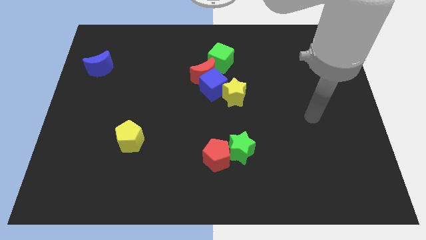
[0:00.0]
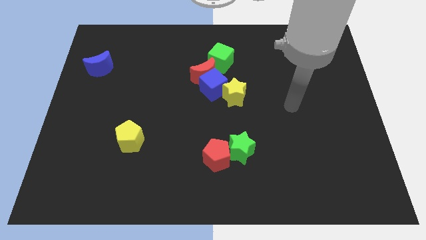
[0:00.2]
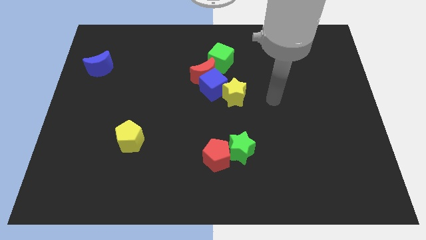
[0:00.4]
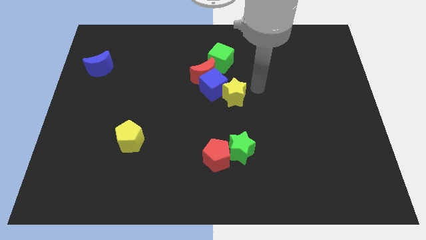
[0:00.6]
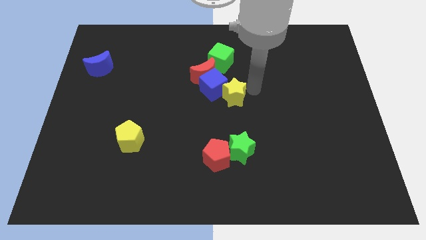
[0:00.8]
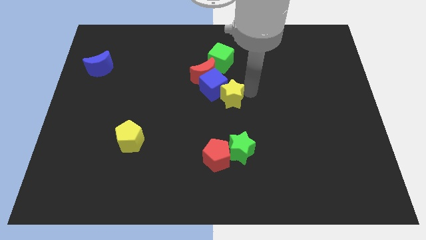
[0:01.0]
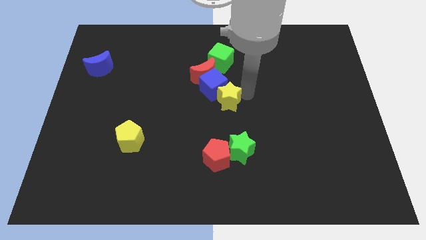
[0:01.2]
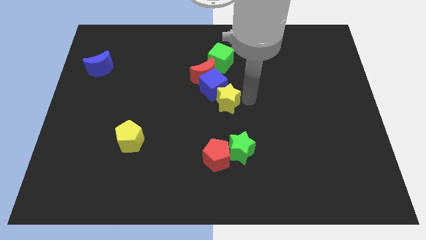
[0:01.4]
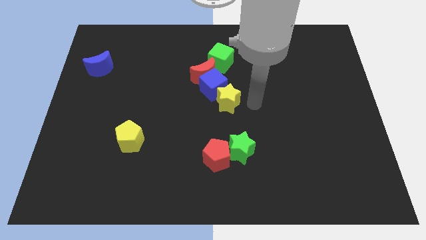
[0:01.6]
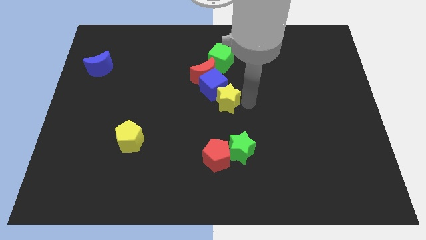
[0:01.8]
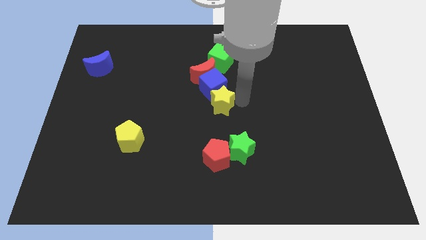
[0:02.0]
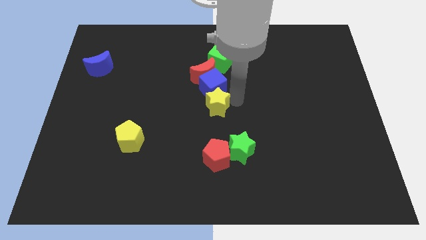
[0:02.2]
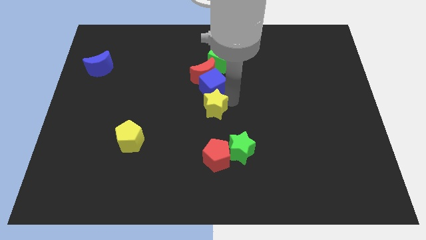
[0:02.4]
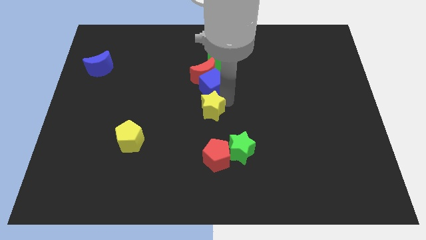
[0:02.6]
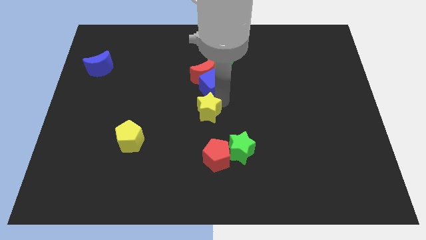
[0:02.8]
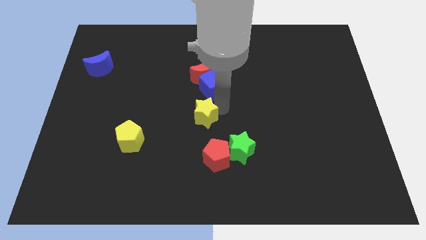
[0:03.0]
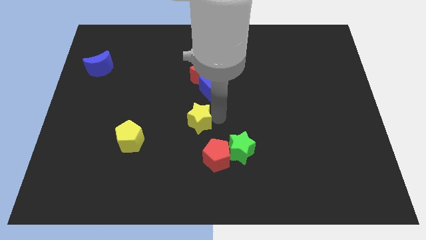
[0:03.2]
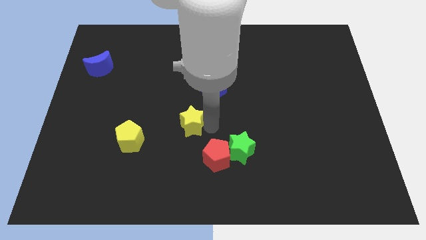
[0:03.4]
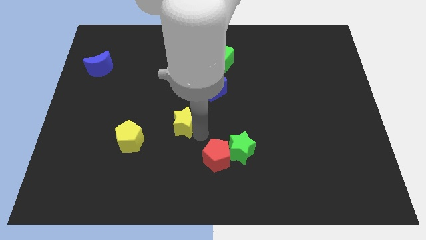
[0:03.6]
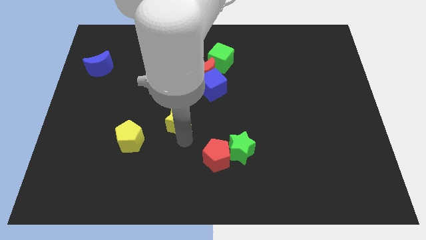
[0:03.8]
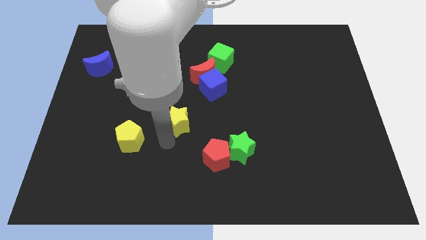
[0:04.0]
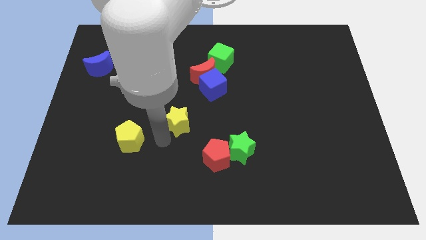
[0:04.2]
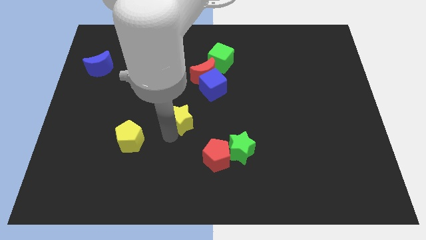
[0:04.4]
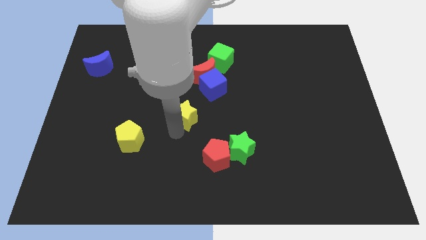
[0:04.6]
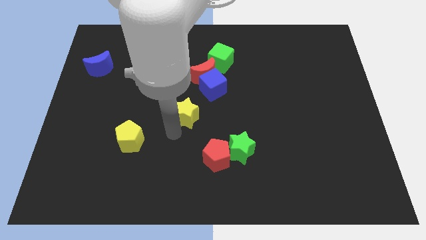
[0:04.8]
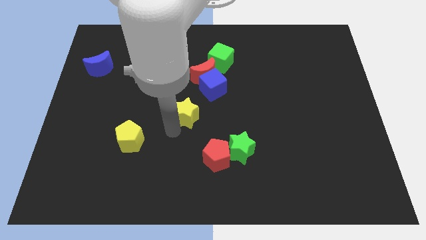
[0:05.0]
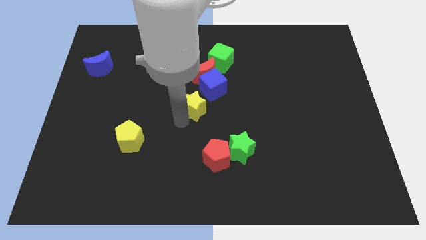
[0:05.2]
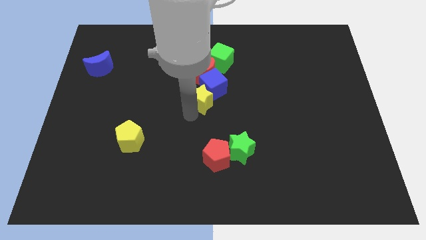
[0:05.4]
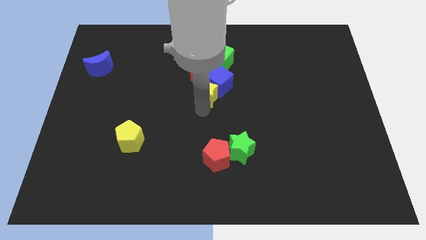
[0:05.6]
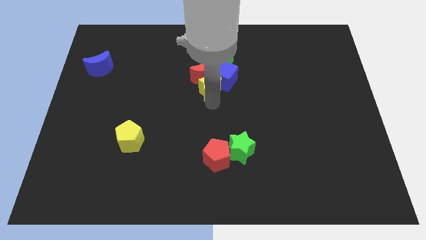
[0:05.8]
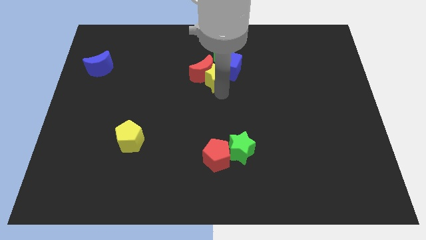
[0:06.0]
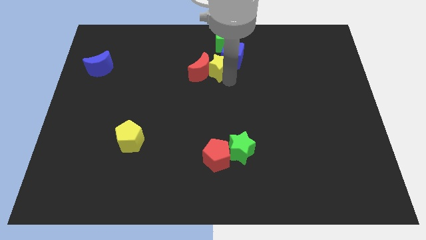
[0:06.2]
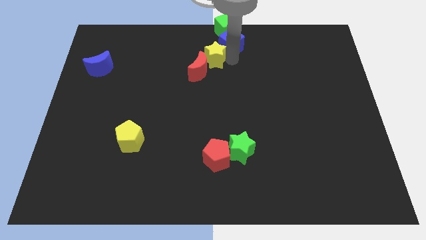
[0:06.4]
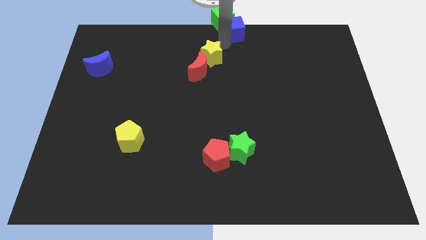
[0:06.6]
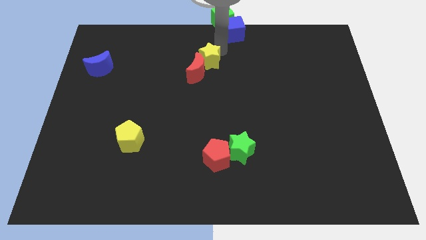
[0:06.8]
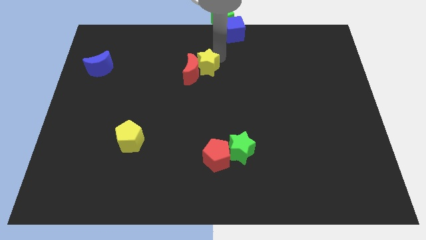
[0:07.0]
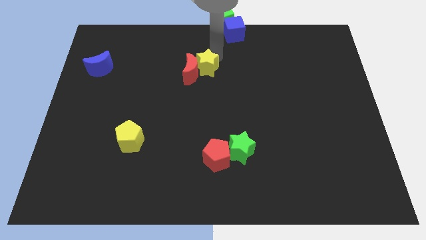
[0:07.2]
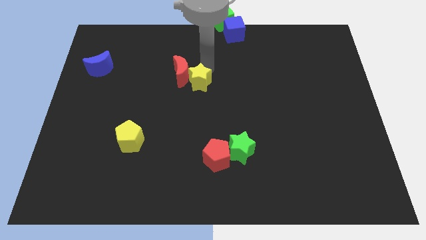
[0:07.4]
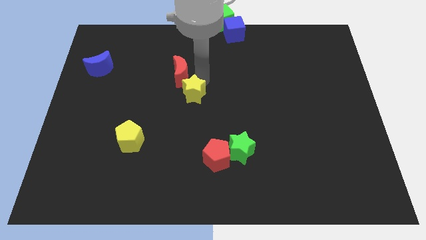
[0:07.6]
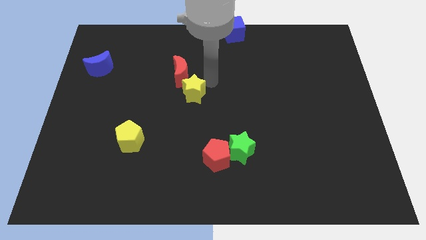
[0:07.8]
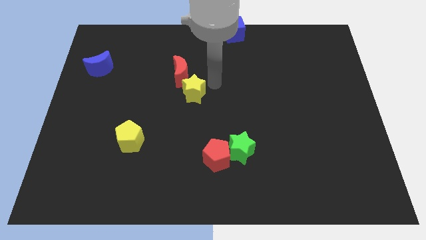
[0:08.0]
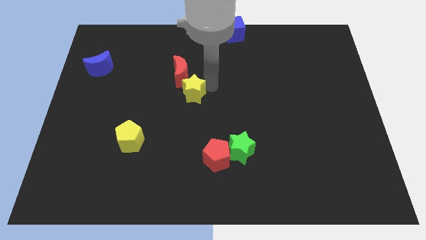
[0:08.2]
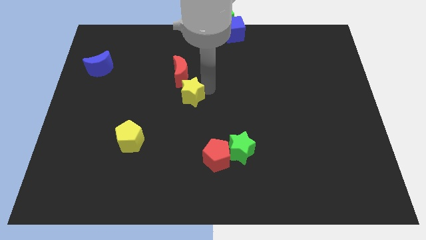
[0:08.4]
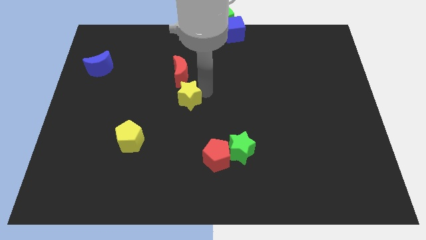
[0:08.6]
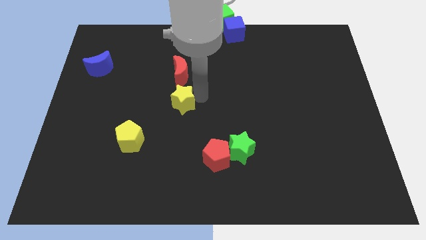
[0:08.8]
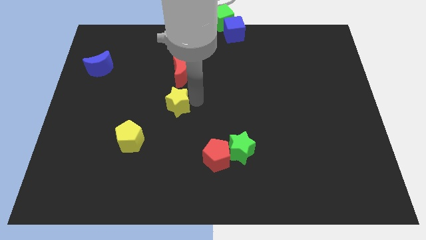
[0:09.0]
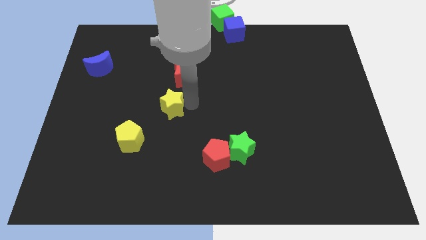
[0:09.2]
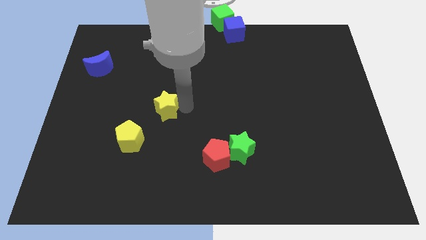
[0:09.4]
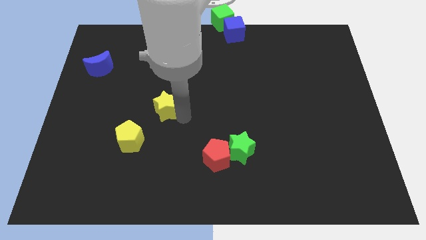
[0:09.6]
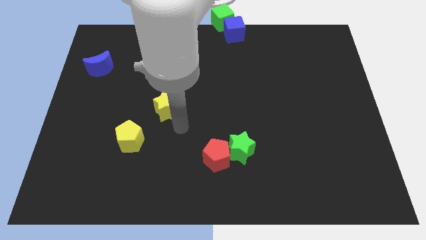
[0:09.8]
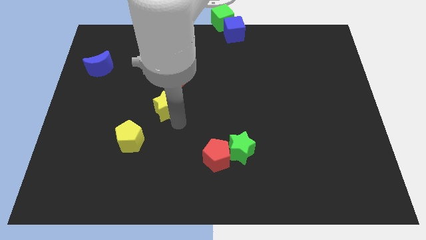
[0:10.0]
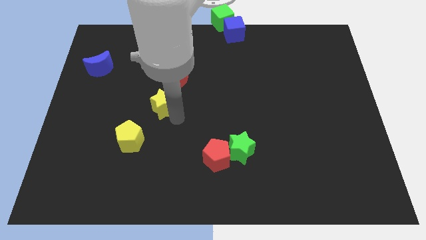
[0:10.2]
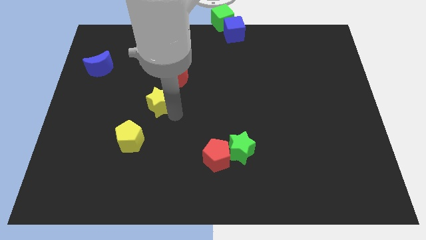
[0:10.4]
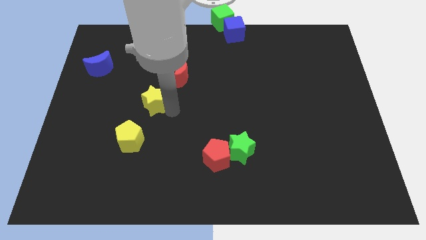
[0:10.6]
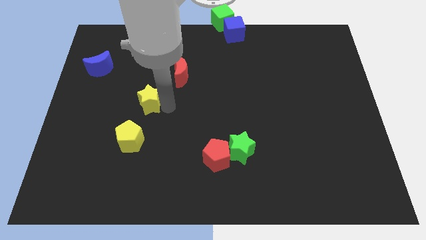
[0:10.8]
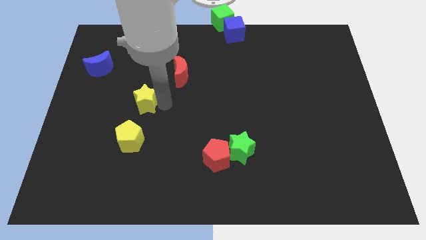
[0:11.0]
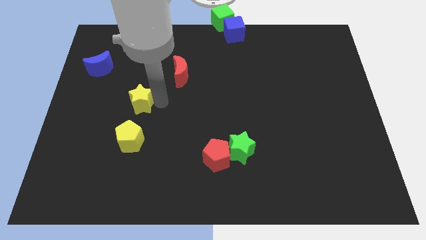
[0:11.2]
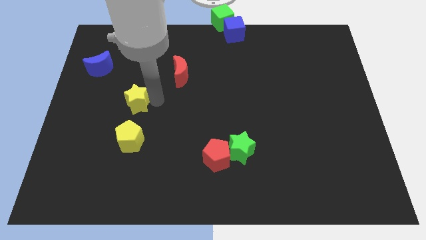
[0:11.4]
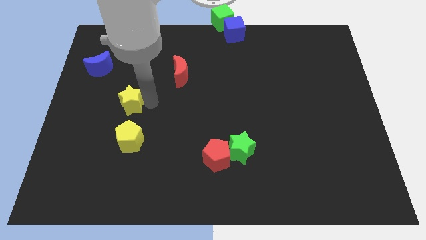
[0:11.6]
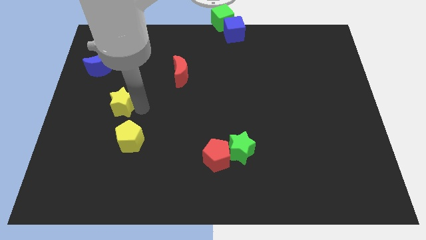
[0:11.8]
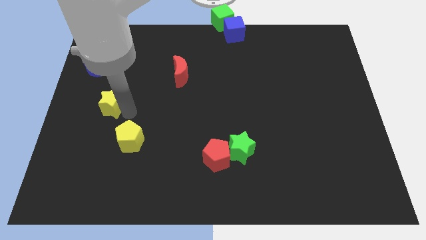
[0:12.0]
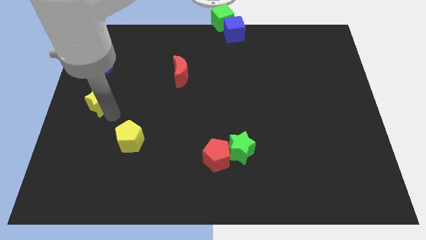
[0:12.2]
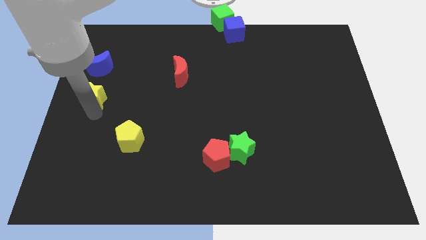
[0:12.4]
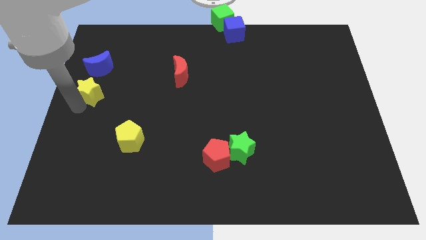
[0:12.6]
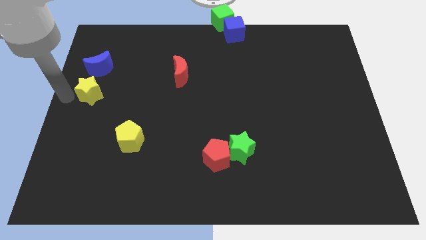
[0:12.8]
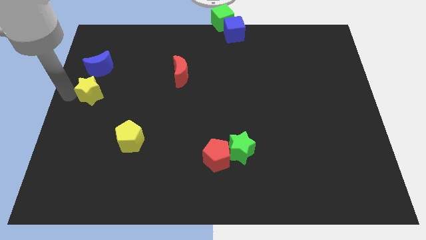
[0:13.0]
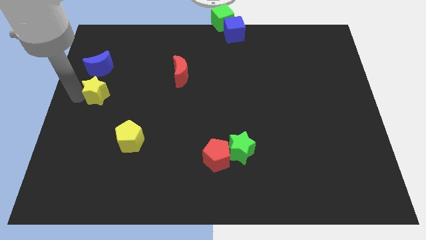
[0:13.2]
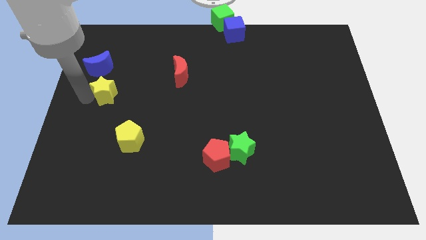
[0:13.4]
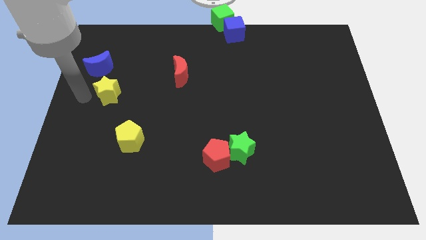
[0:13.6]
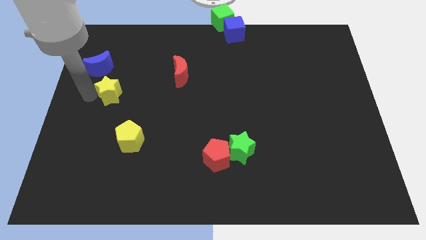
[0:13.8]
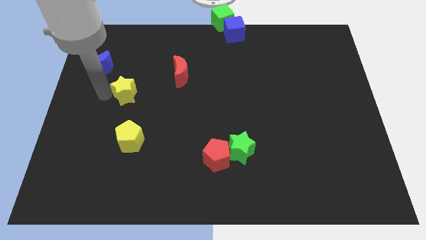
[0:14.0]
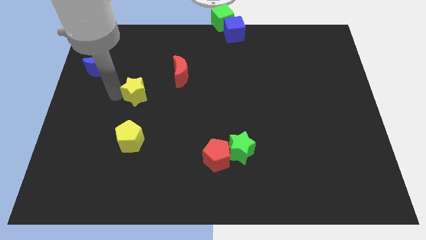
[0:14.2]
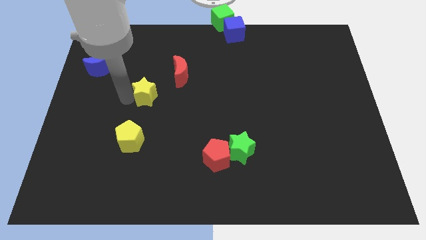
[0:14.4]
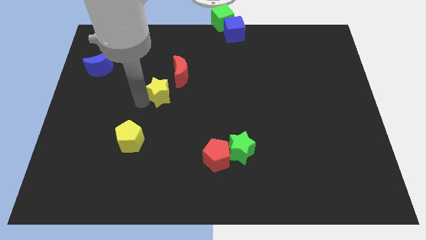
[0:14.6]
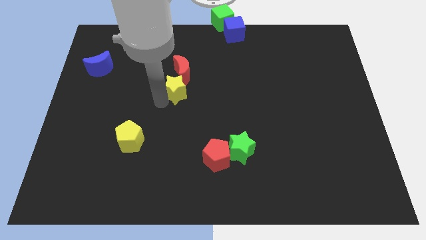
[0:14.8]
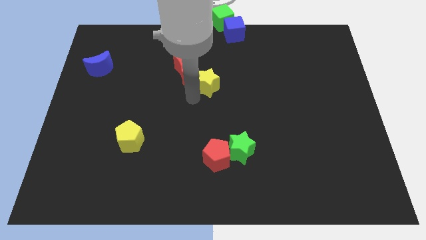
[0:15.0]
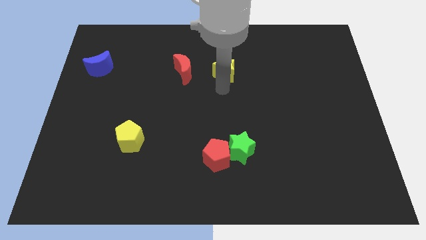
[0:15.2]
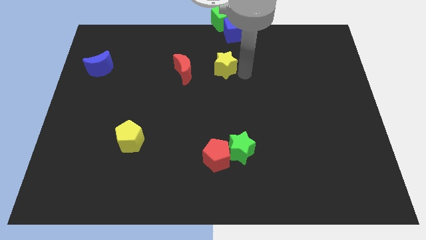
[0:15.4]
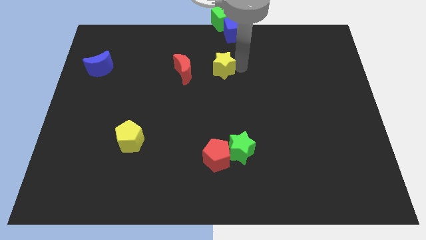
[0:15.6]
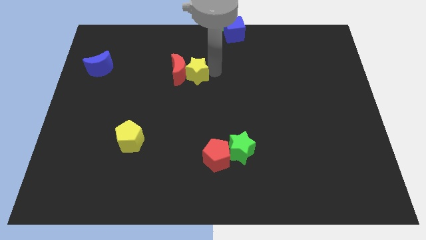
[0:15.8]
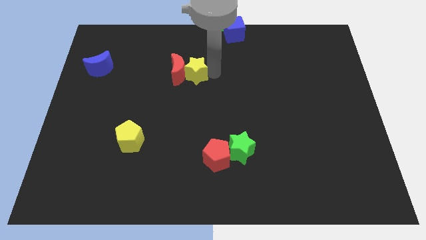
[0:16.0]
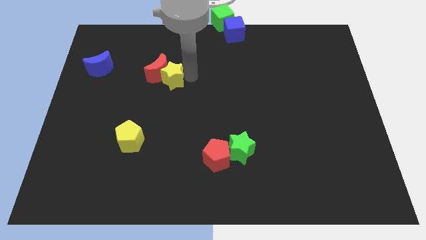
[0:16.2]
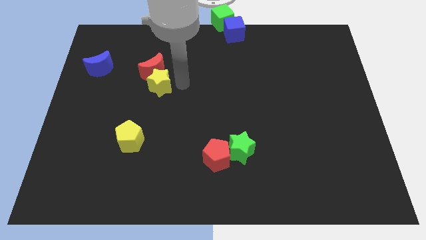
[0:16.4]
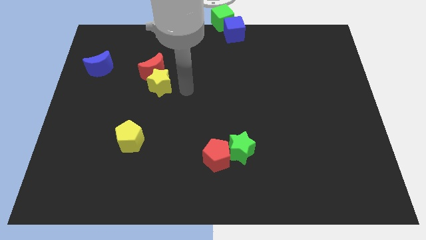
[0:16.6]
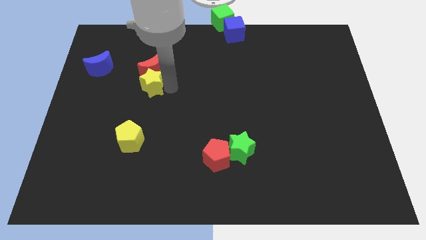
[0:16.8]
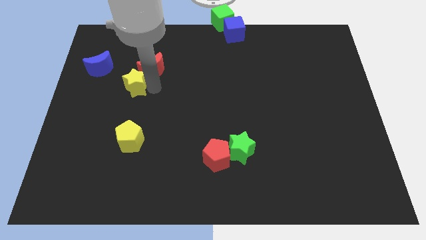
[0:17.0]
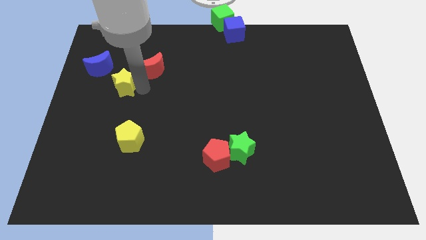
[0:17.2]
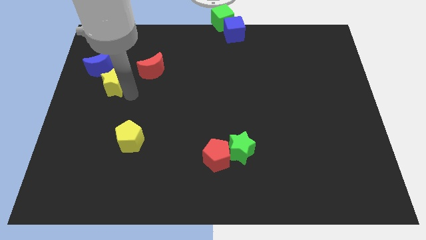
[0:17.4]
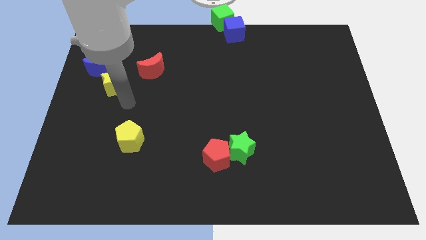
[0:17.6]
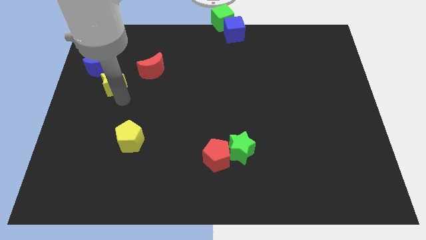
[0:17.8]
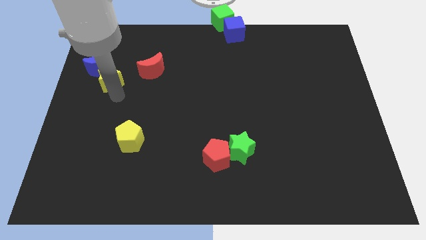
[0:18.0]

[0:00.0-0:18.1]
slide the yellow star close to the blue moon
